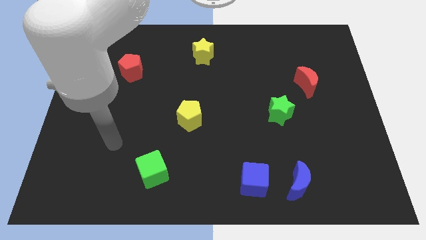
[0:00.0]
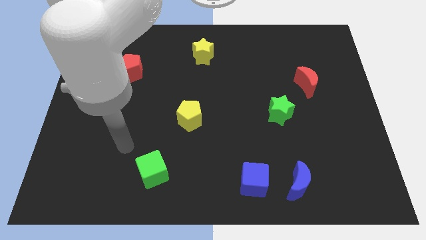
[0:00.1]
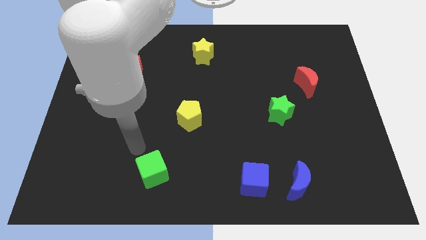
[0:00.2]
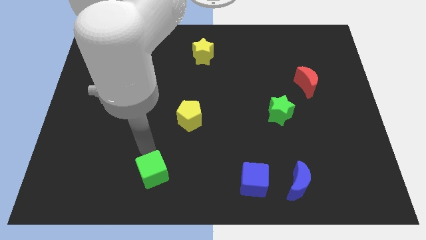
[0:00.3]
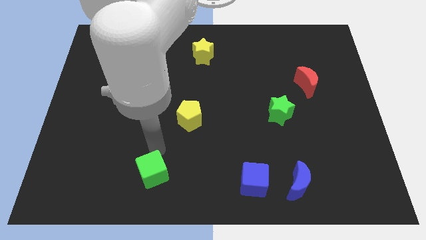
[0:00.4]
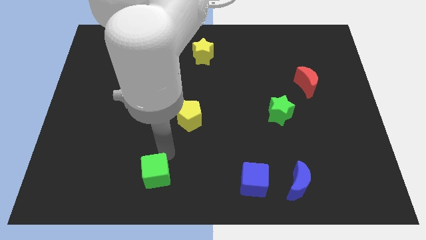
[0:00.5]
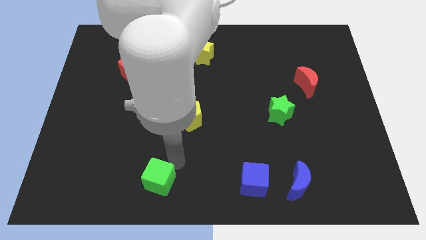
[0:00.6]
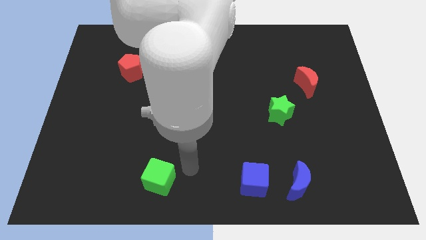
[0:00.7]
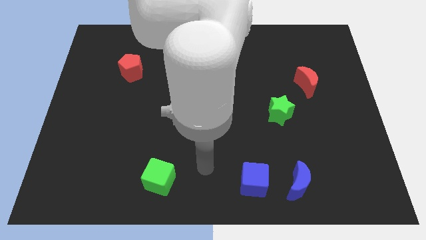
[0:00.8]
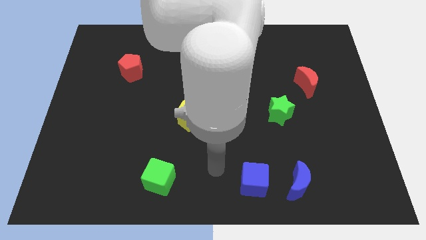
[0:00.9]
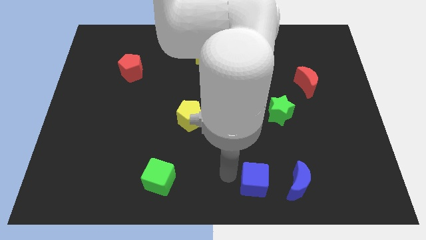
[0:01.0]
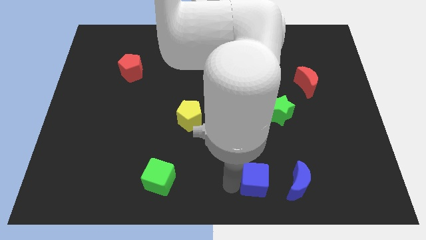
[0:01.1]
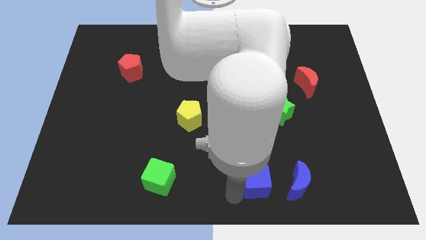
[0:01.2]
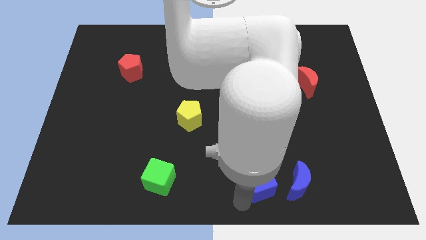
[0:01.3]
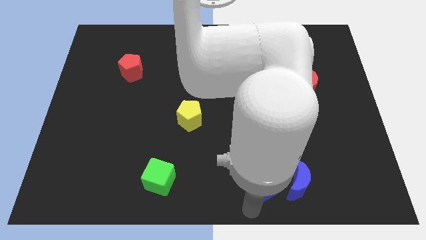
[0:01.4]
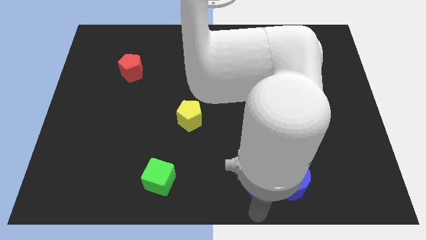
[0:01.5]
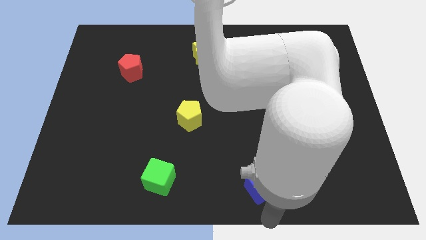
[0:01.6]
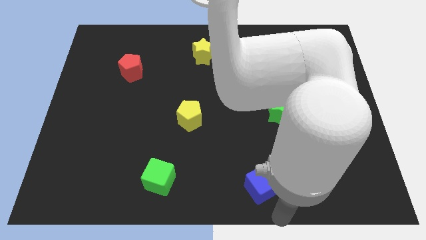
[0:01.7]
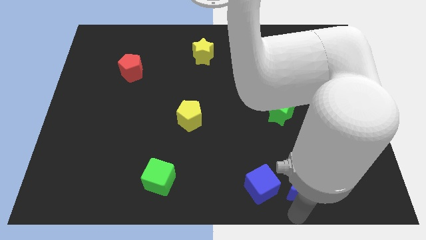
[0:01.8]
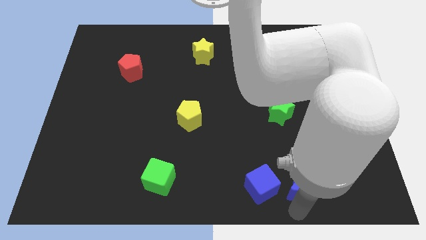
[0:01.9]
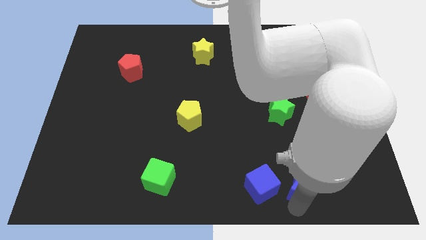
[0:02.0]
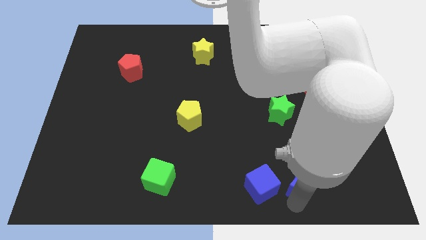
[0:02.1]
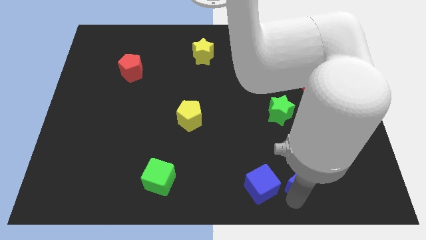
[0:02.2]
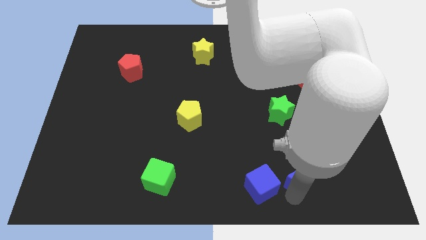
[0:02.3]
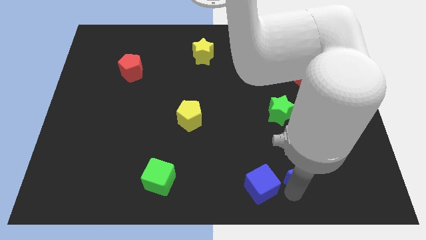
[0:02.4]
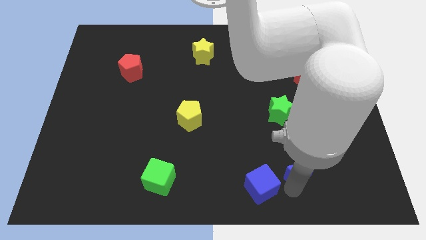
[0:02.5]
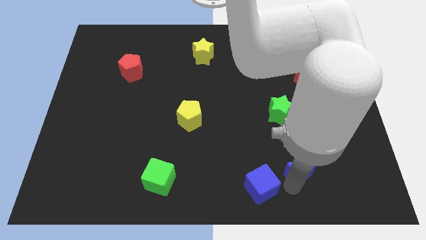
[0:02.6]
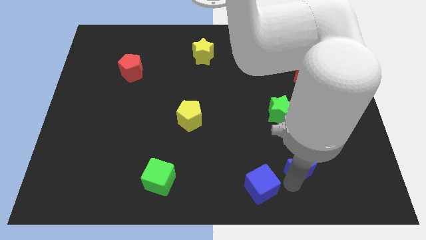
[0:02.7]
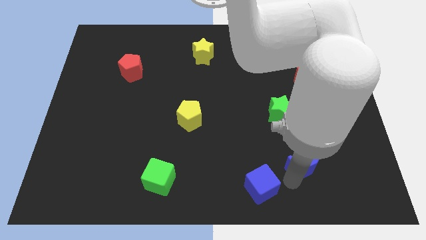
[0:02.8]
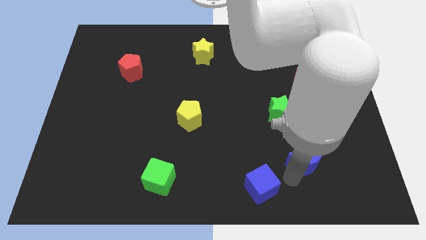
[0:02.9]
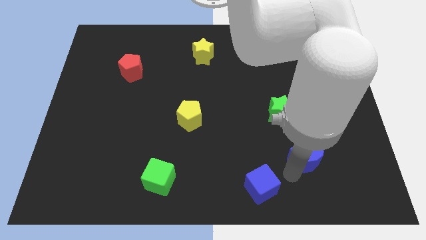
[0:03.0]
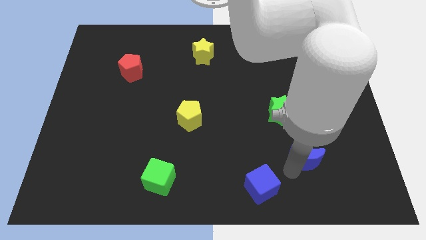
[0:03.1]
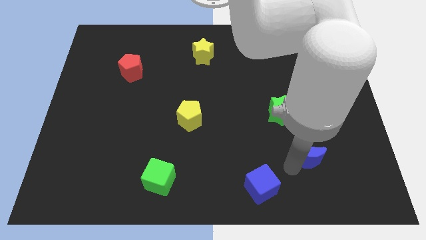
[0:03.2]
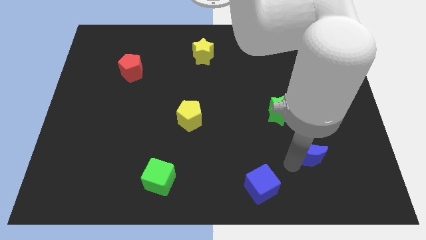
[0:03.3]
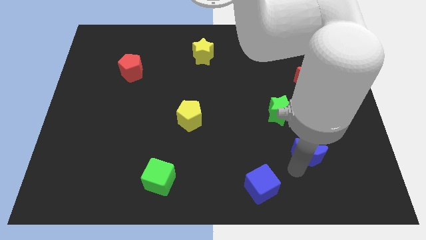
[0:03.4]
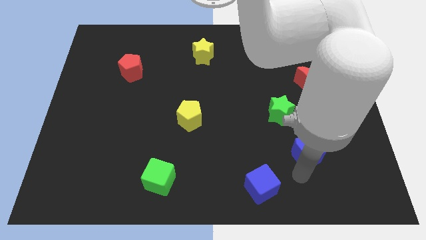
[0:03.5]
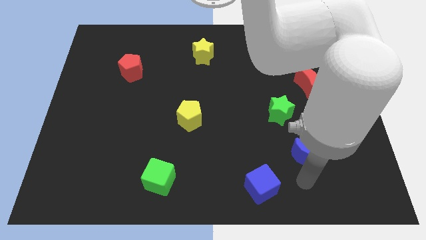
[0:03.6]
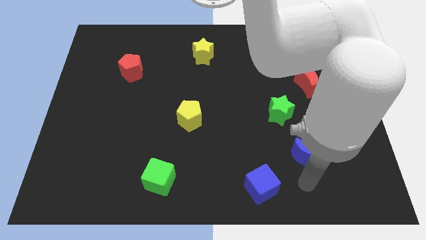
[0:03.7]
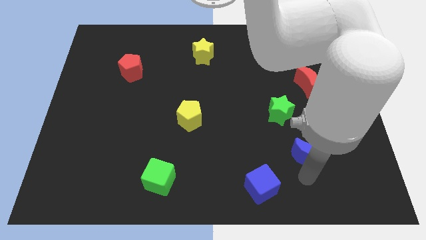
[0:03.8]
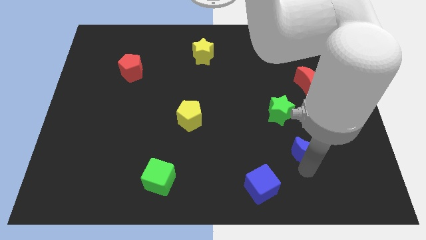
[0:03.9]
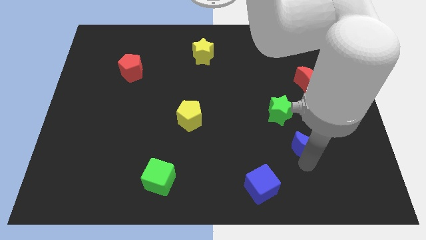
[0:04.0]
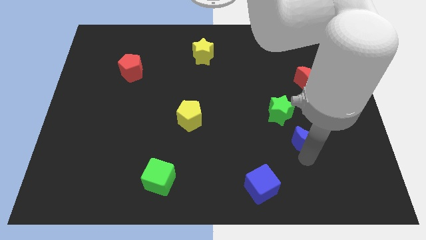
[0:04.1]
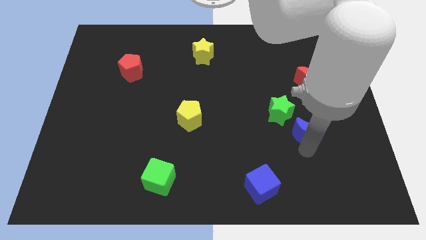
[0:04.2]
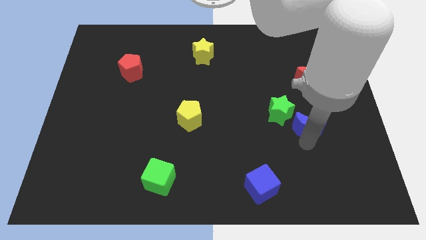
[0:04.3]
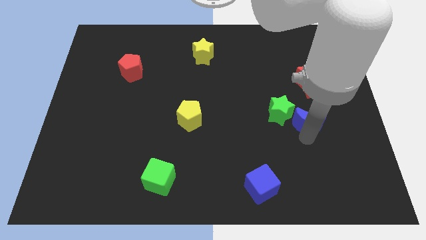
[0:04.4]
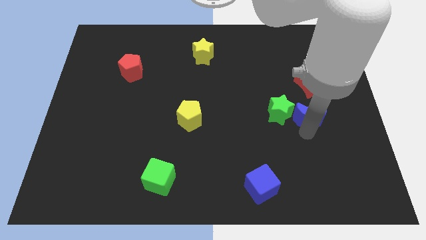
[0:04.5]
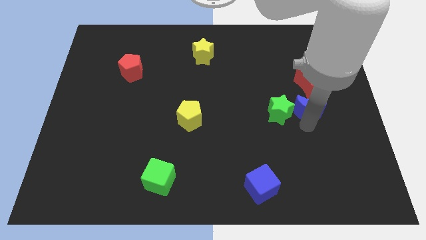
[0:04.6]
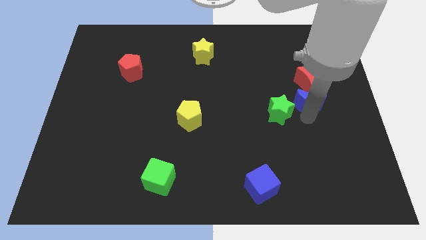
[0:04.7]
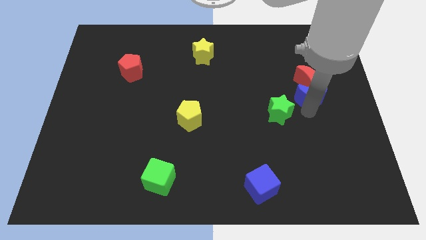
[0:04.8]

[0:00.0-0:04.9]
move the blue moon close to the red moon

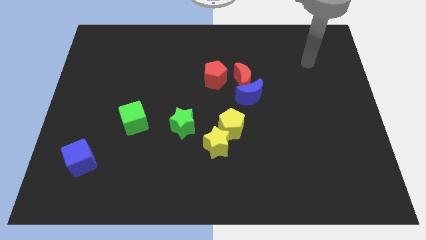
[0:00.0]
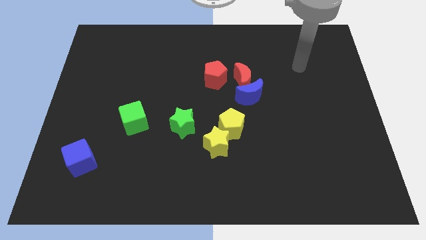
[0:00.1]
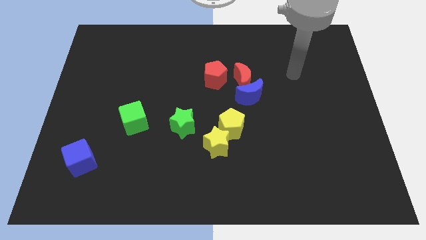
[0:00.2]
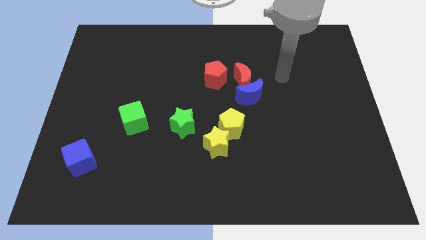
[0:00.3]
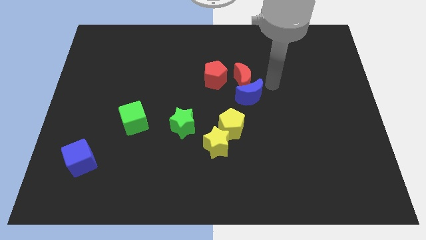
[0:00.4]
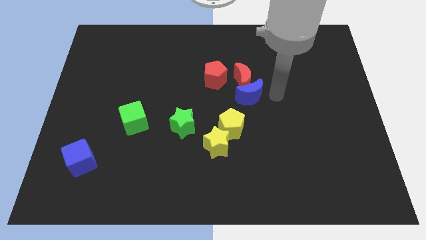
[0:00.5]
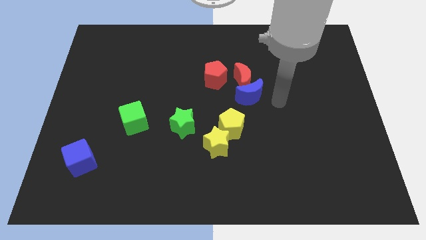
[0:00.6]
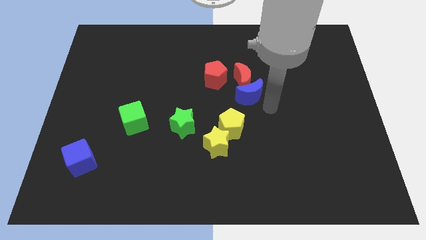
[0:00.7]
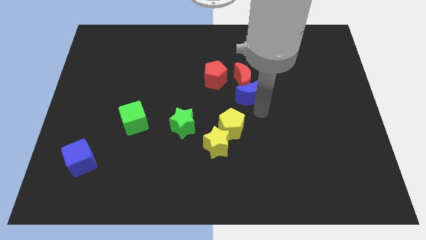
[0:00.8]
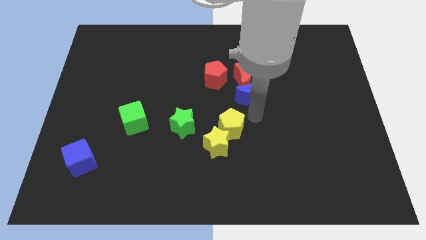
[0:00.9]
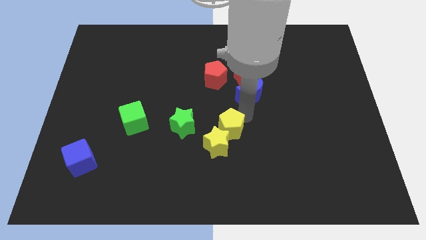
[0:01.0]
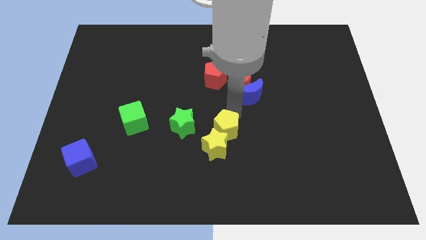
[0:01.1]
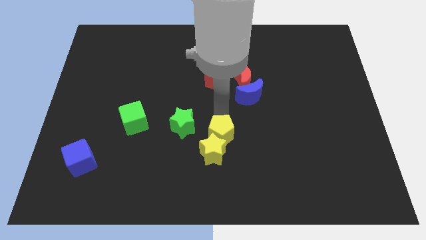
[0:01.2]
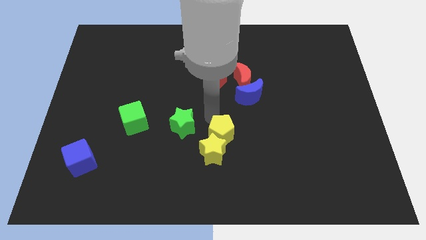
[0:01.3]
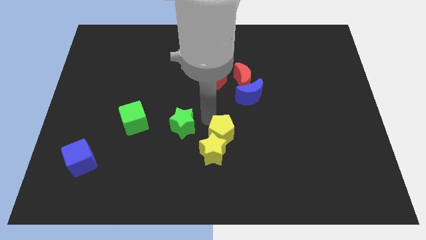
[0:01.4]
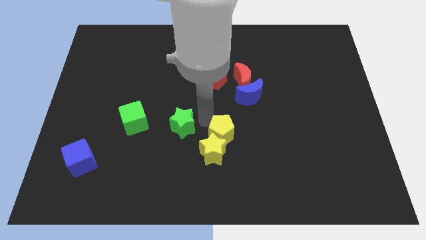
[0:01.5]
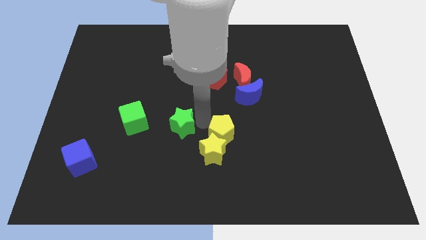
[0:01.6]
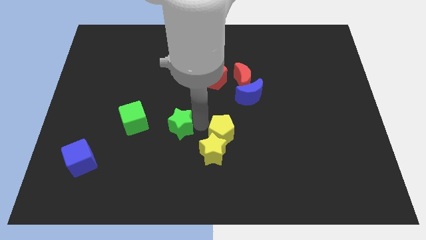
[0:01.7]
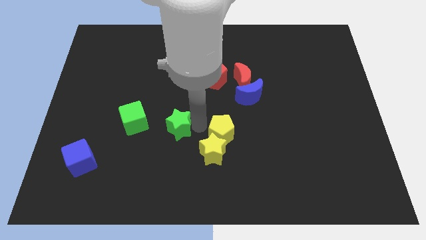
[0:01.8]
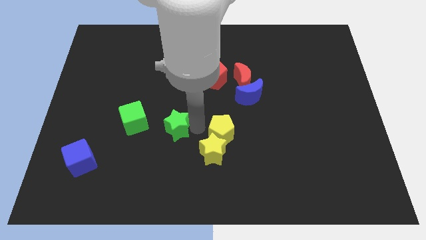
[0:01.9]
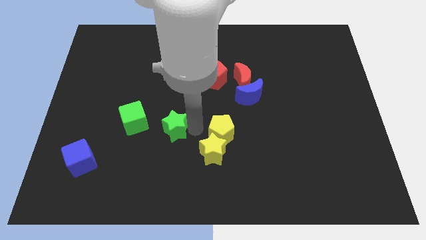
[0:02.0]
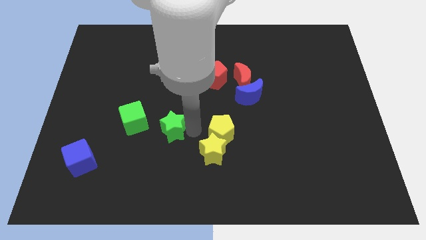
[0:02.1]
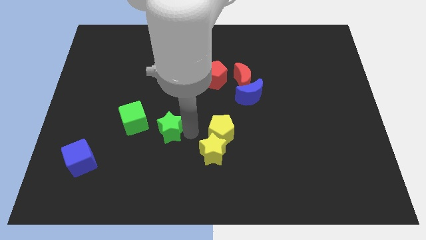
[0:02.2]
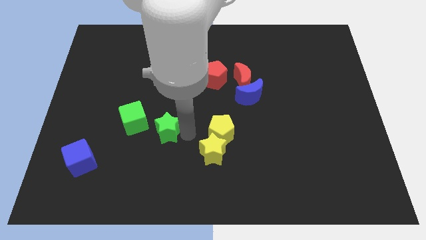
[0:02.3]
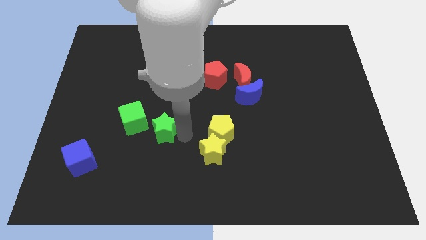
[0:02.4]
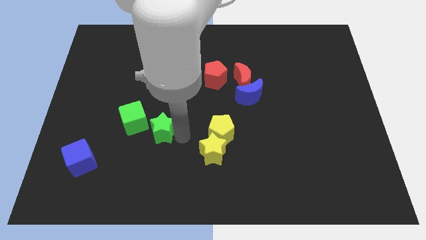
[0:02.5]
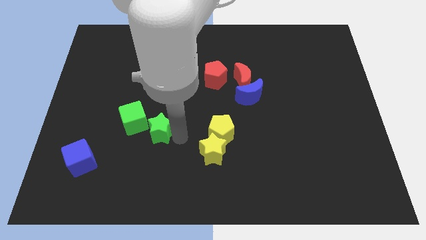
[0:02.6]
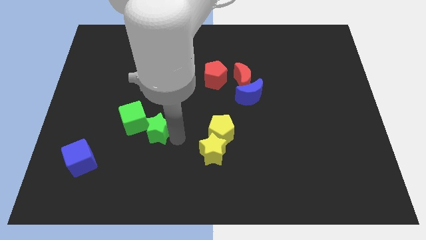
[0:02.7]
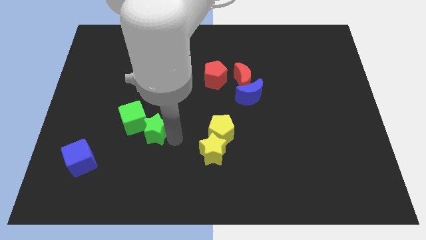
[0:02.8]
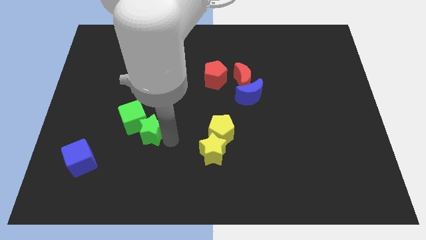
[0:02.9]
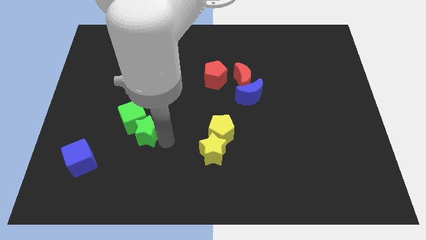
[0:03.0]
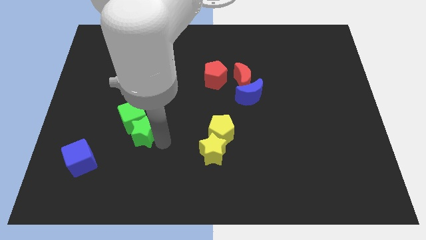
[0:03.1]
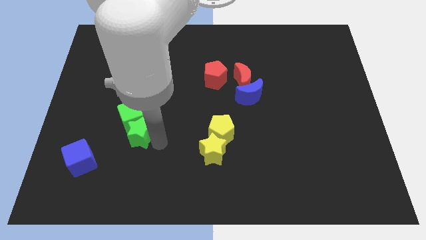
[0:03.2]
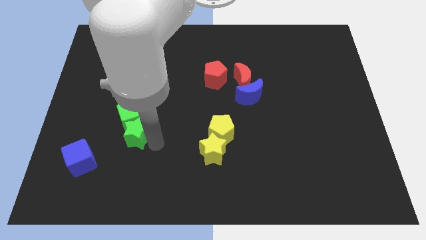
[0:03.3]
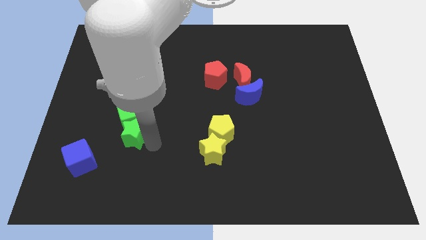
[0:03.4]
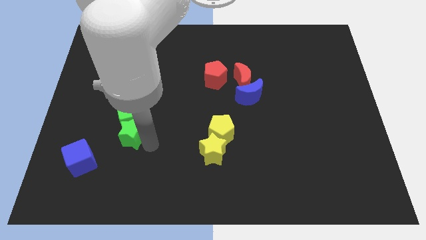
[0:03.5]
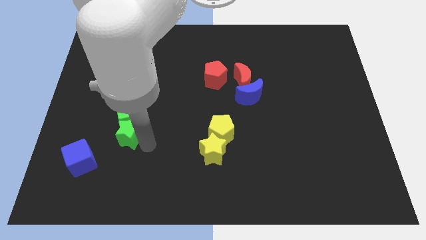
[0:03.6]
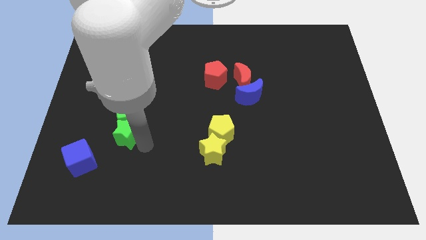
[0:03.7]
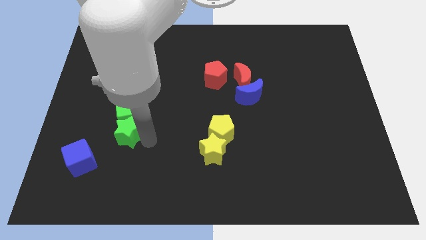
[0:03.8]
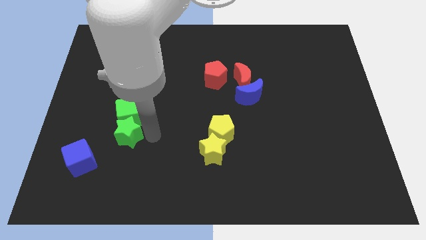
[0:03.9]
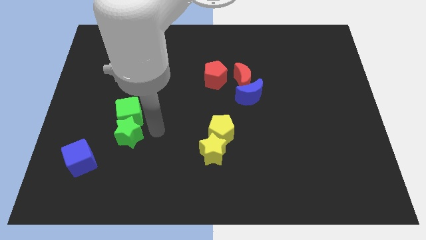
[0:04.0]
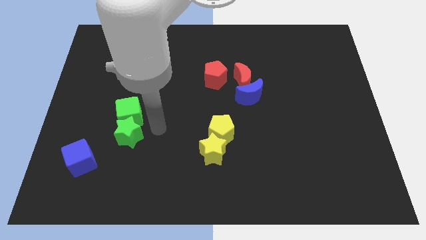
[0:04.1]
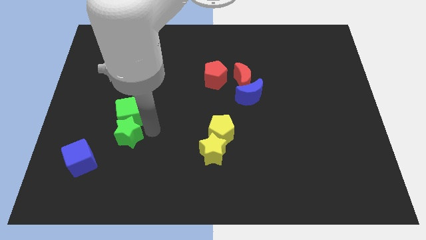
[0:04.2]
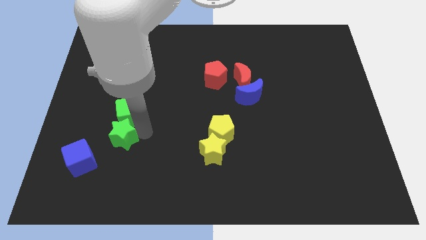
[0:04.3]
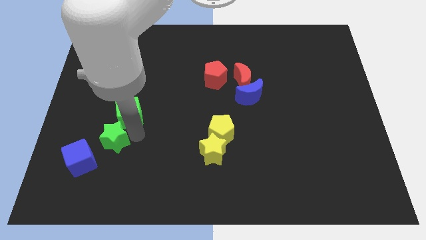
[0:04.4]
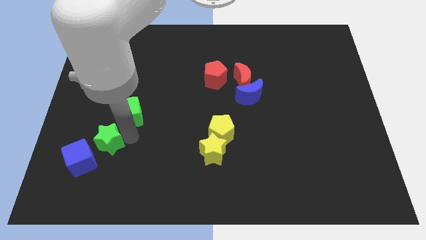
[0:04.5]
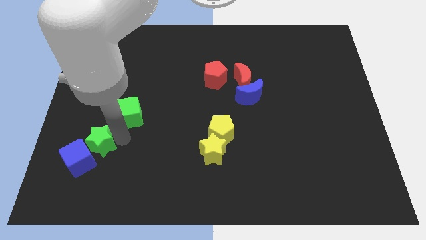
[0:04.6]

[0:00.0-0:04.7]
slide the green star next to the blue cube
